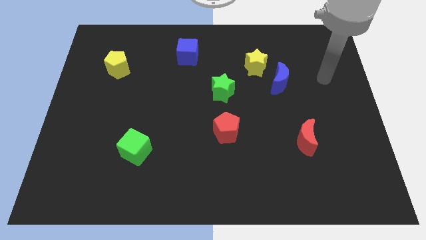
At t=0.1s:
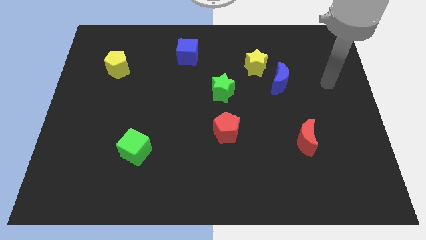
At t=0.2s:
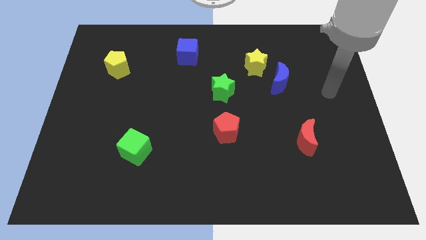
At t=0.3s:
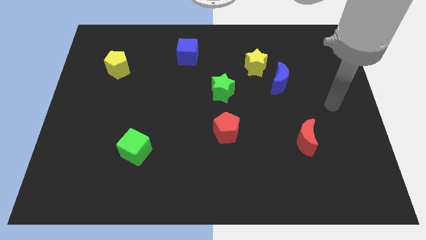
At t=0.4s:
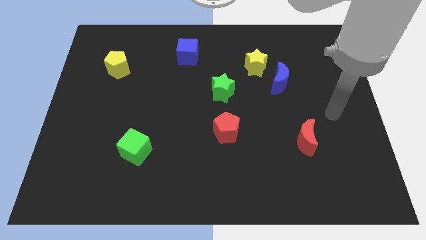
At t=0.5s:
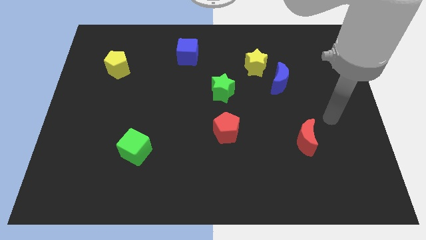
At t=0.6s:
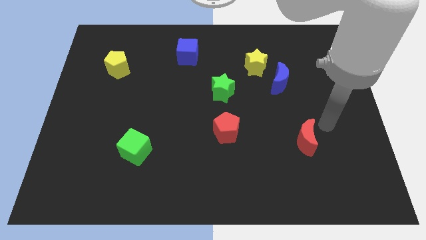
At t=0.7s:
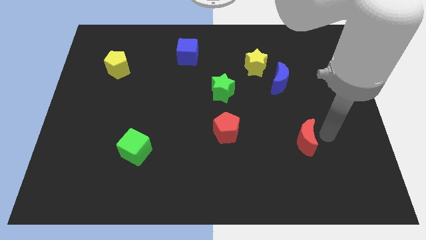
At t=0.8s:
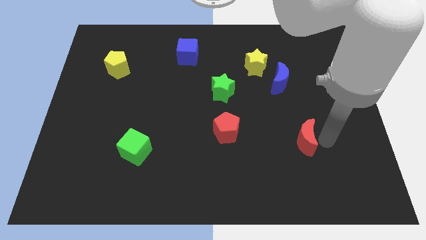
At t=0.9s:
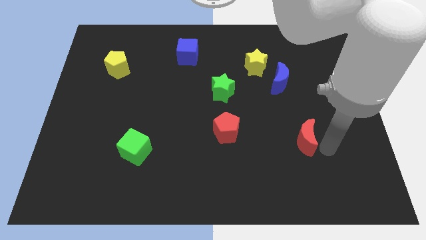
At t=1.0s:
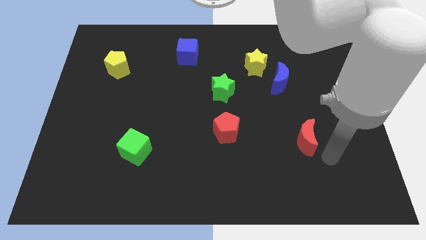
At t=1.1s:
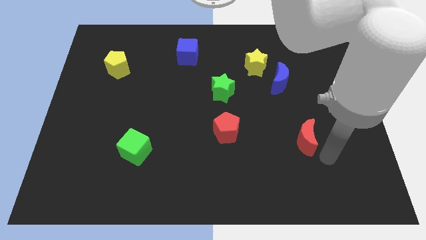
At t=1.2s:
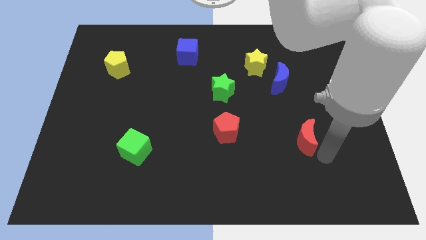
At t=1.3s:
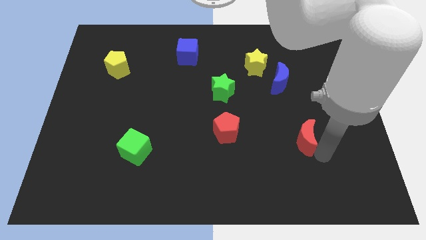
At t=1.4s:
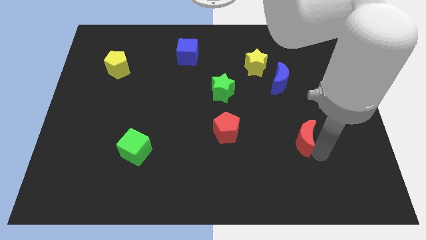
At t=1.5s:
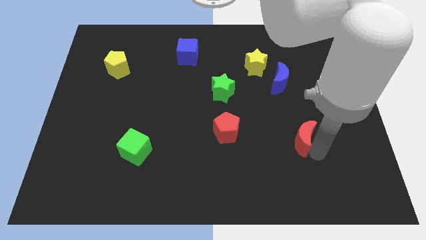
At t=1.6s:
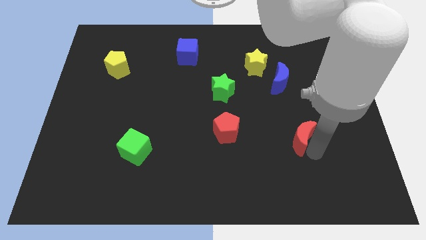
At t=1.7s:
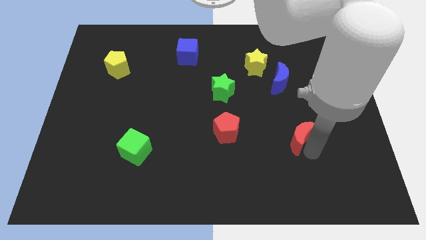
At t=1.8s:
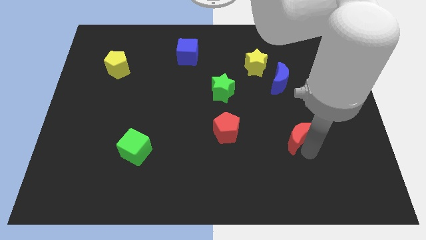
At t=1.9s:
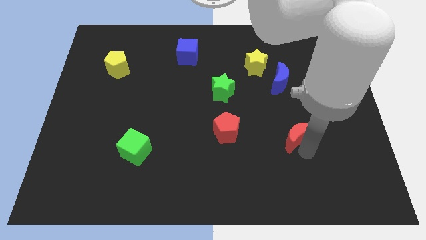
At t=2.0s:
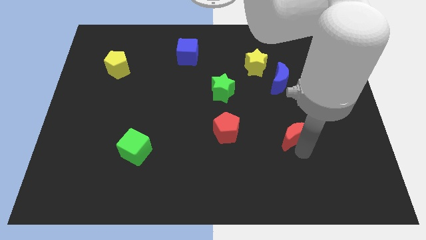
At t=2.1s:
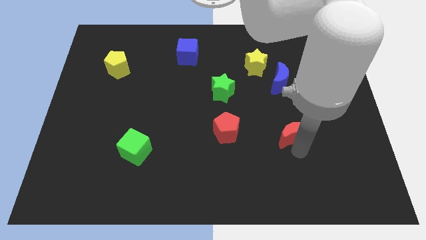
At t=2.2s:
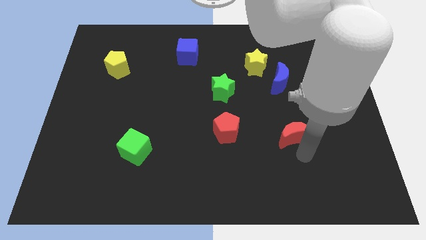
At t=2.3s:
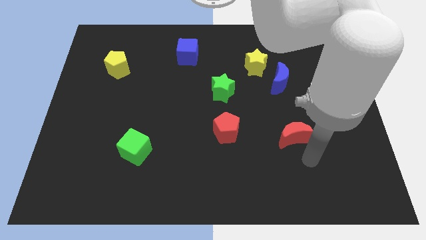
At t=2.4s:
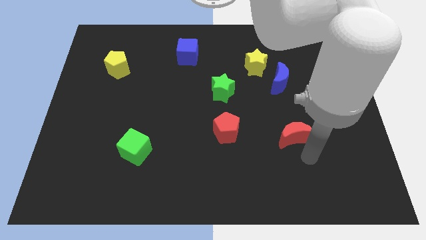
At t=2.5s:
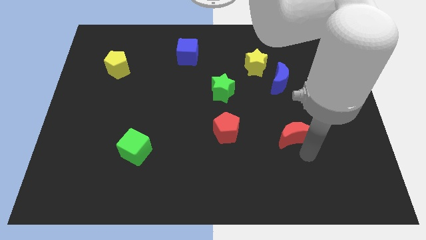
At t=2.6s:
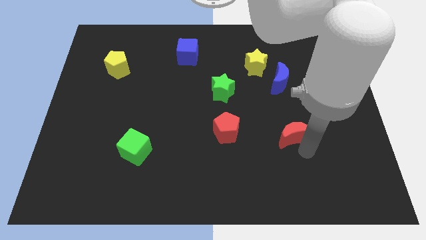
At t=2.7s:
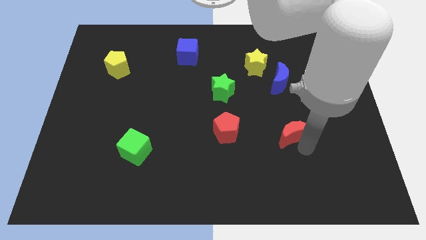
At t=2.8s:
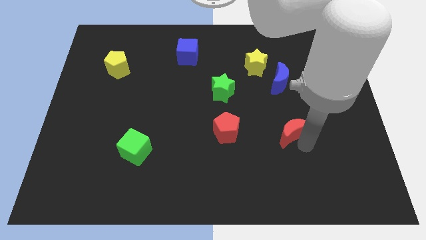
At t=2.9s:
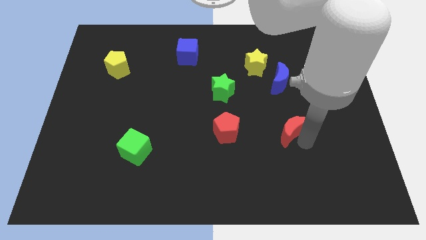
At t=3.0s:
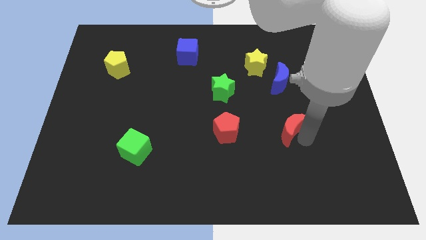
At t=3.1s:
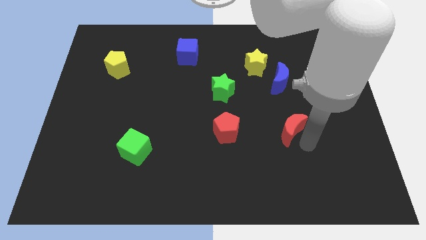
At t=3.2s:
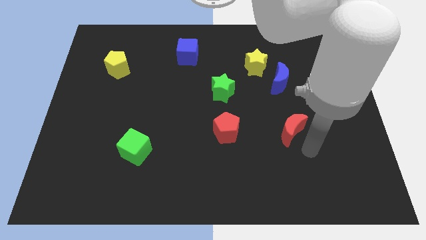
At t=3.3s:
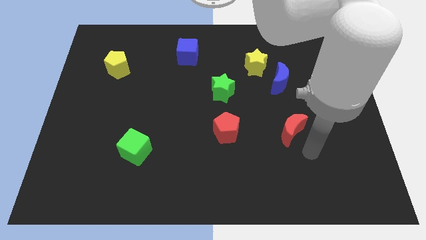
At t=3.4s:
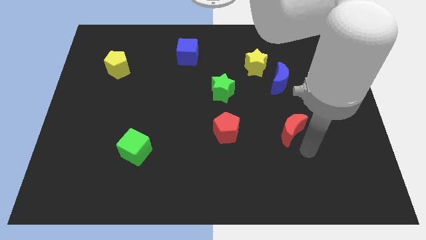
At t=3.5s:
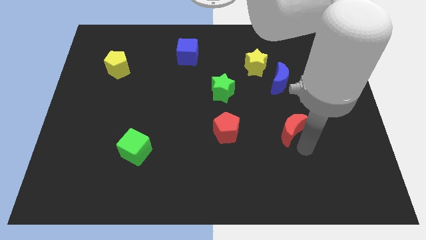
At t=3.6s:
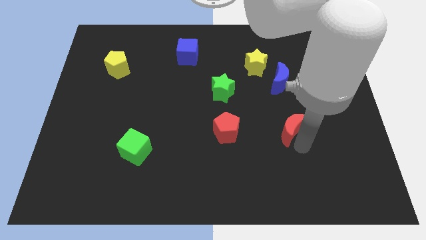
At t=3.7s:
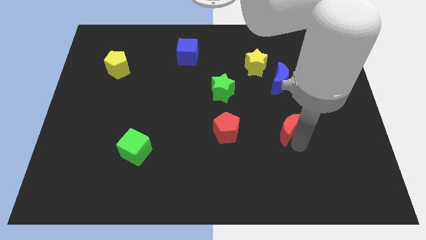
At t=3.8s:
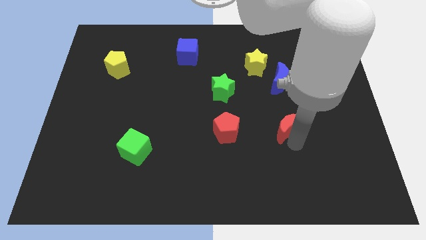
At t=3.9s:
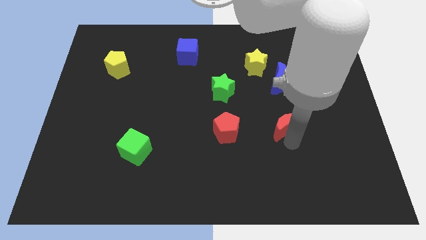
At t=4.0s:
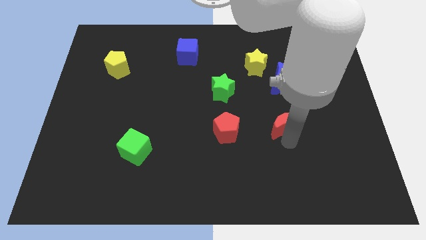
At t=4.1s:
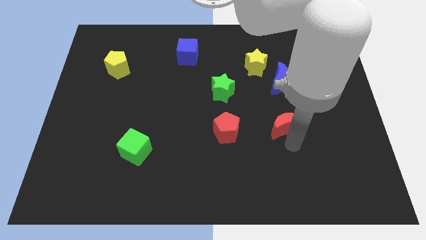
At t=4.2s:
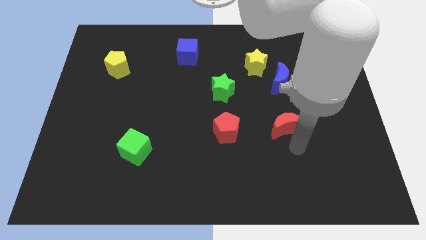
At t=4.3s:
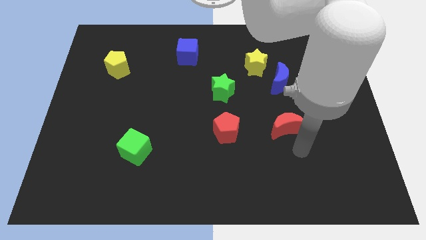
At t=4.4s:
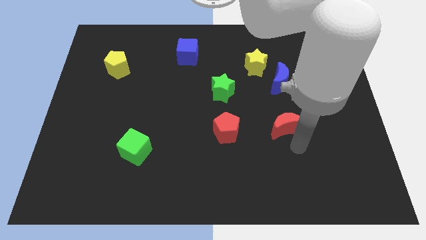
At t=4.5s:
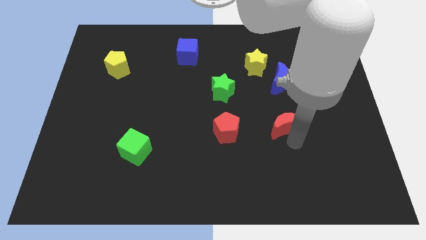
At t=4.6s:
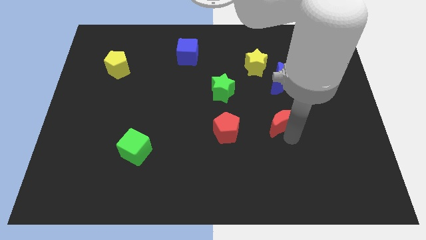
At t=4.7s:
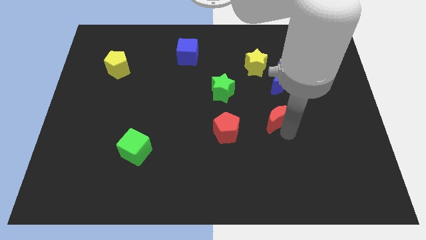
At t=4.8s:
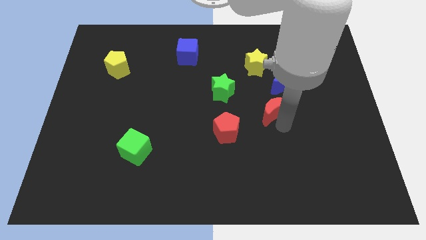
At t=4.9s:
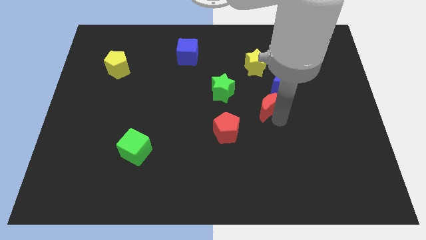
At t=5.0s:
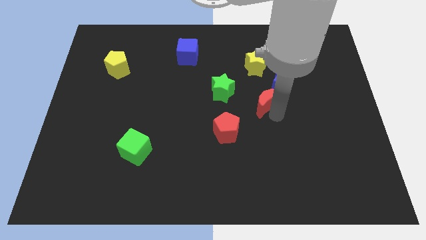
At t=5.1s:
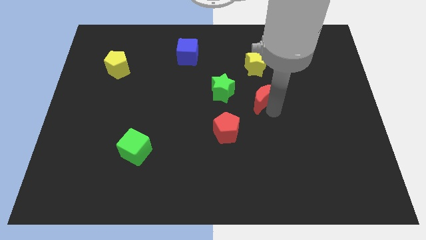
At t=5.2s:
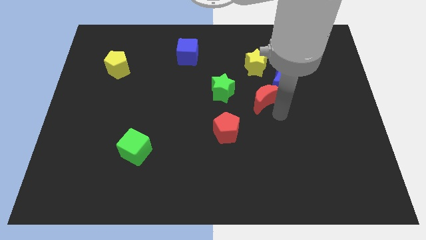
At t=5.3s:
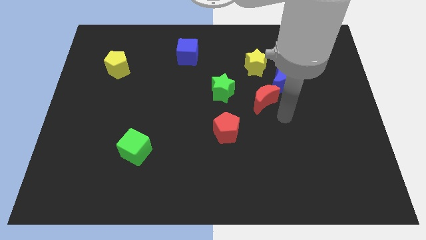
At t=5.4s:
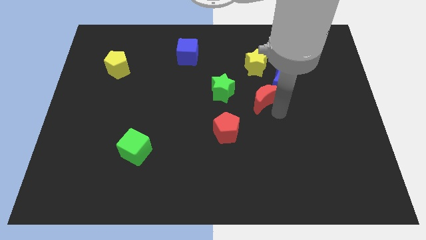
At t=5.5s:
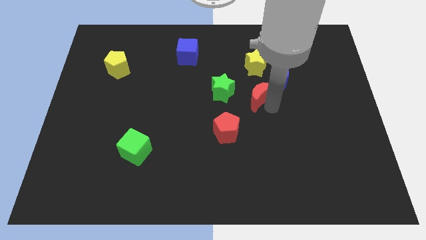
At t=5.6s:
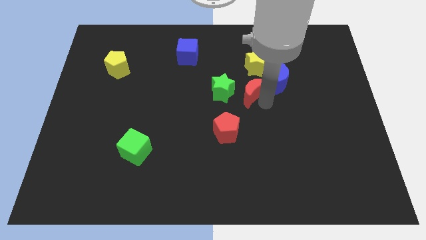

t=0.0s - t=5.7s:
move the red moon to the left side of the blue moon

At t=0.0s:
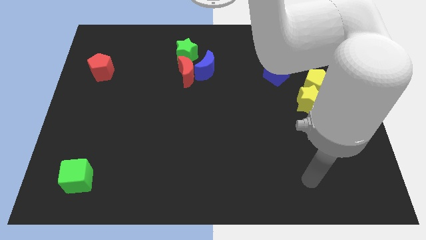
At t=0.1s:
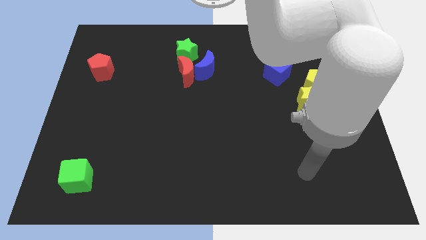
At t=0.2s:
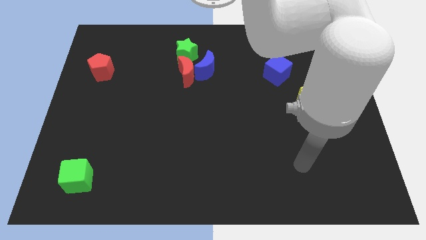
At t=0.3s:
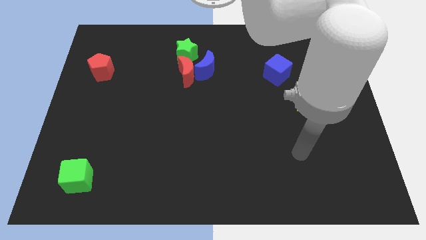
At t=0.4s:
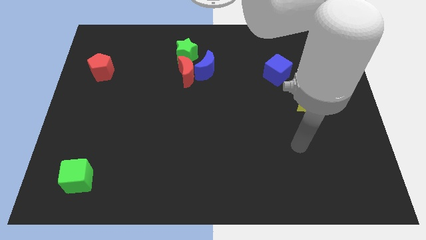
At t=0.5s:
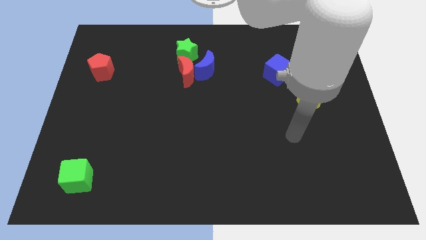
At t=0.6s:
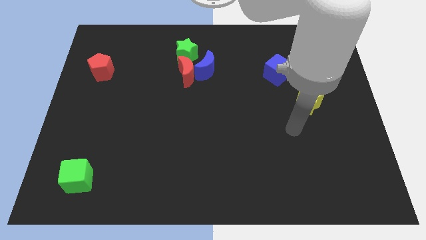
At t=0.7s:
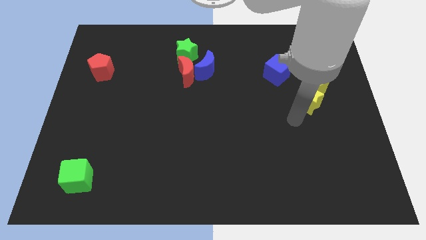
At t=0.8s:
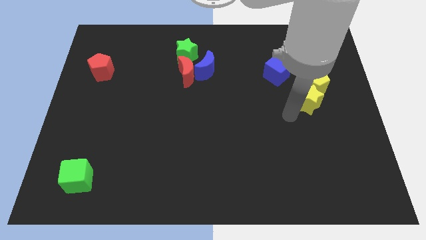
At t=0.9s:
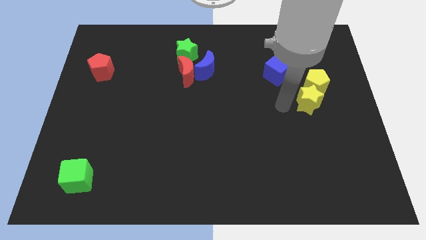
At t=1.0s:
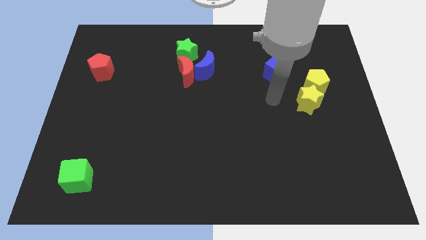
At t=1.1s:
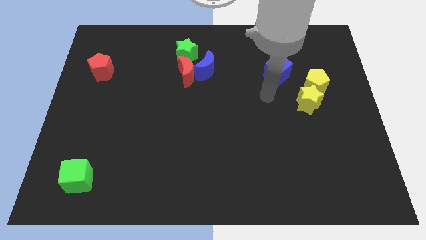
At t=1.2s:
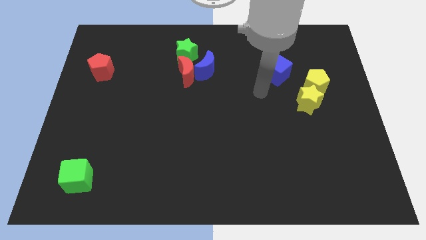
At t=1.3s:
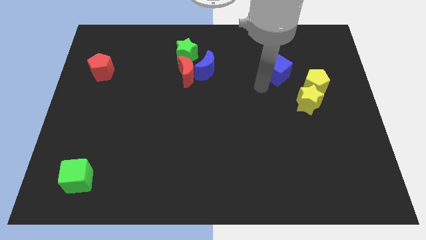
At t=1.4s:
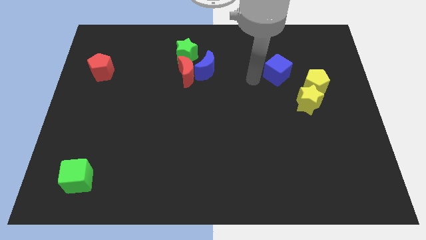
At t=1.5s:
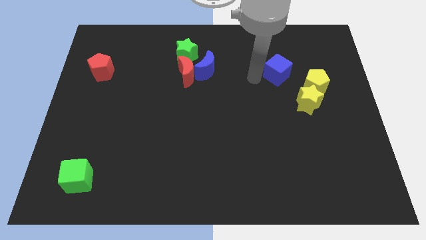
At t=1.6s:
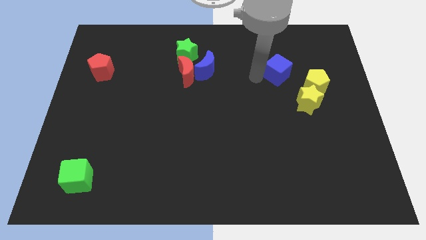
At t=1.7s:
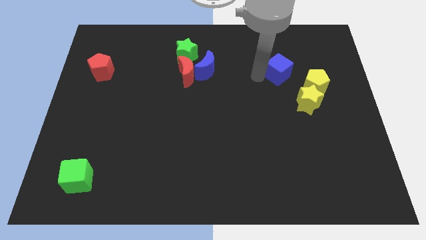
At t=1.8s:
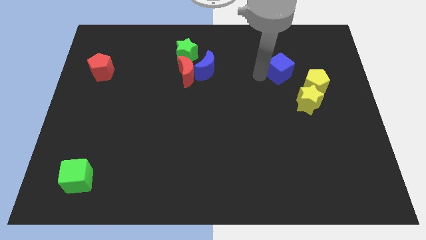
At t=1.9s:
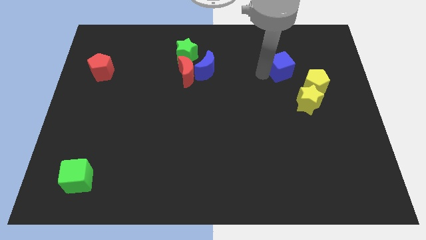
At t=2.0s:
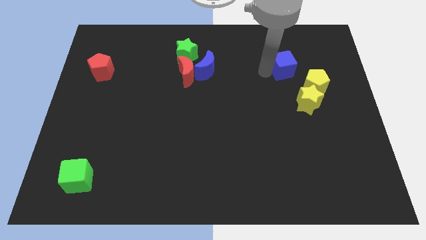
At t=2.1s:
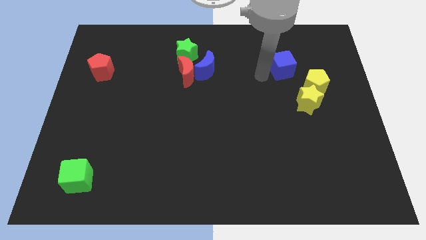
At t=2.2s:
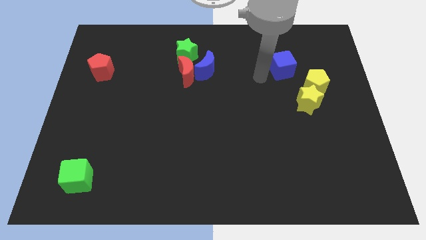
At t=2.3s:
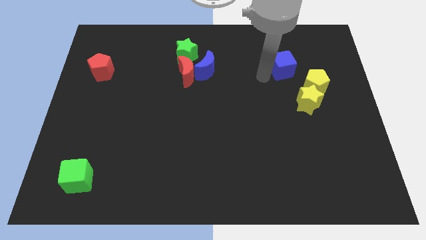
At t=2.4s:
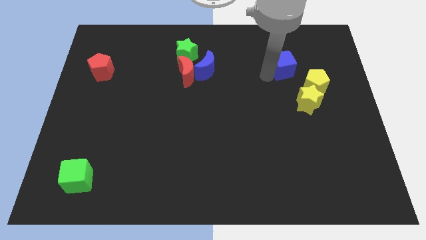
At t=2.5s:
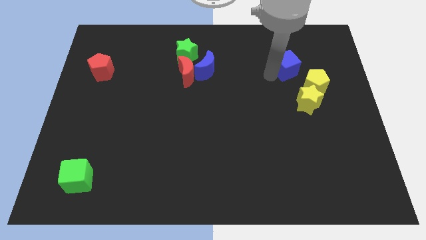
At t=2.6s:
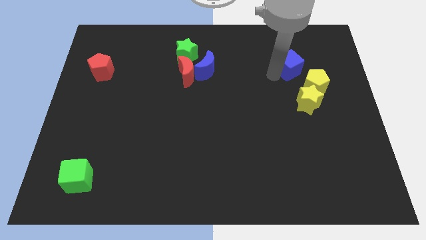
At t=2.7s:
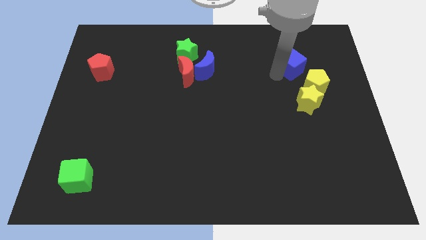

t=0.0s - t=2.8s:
put the blue cube to the top side of the yellow pentagon
